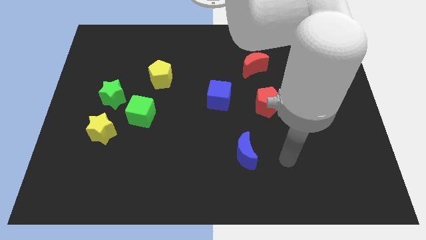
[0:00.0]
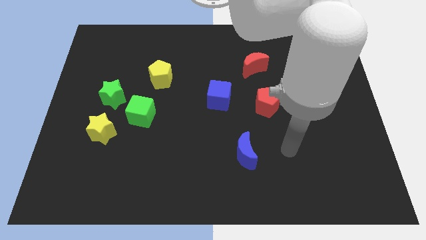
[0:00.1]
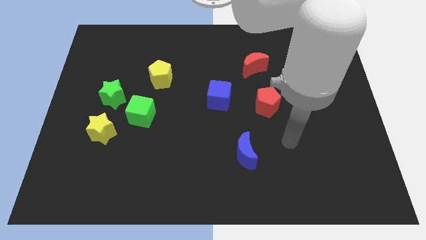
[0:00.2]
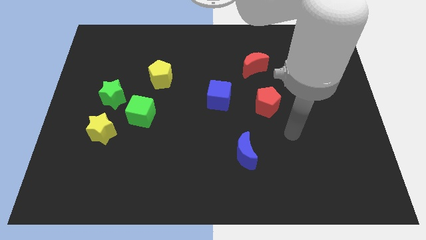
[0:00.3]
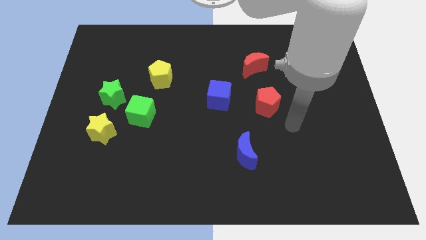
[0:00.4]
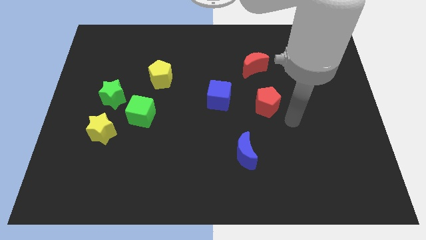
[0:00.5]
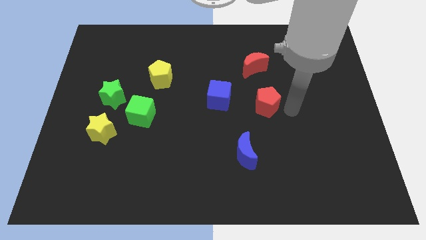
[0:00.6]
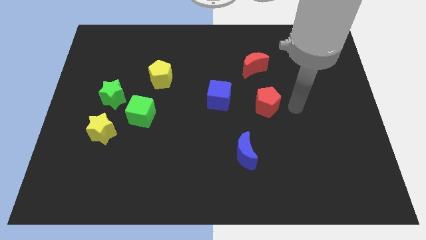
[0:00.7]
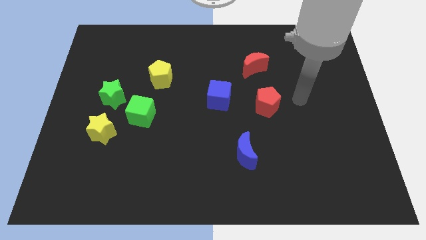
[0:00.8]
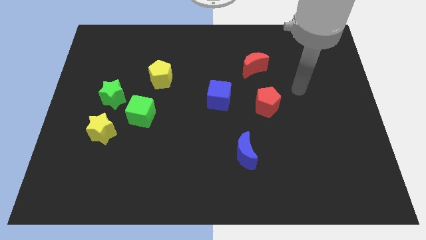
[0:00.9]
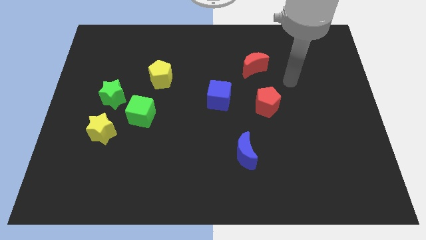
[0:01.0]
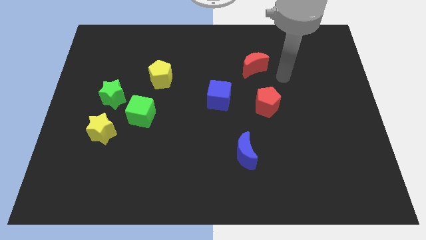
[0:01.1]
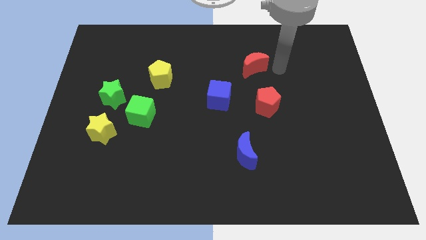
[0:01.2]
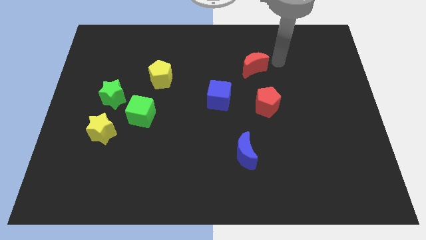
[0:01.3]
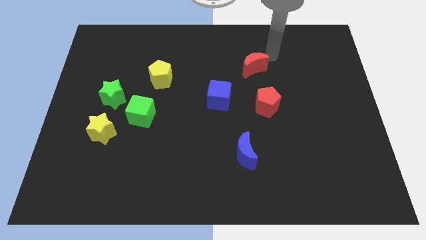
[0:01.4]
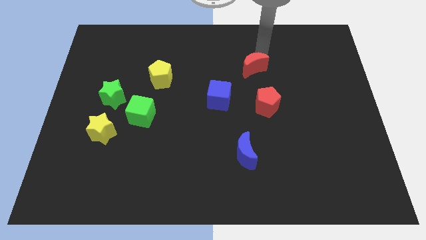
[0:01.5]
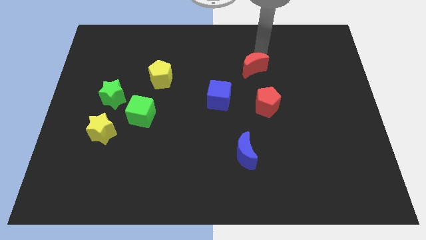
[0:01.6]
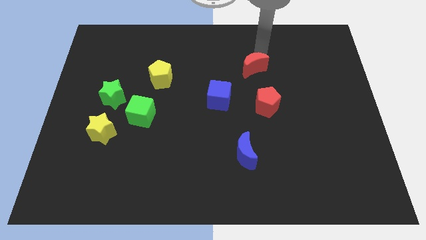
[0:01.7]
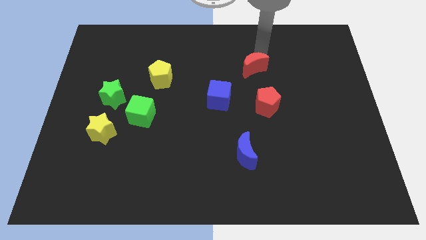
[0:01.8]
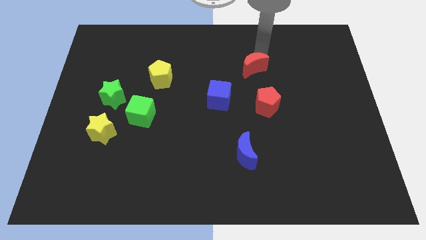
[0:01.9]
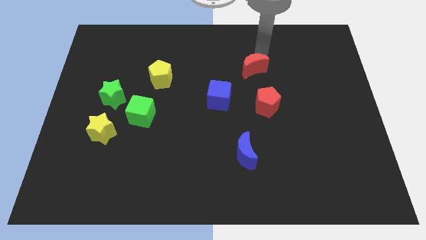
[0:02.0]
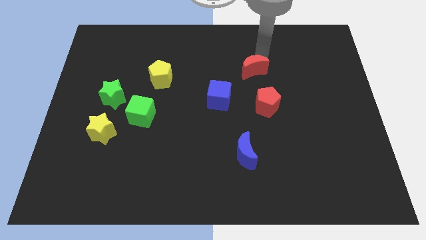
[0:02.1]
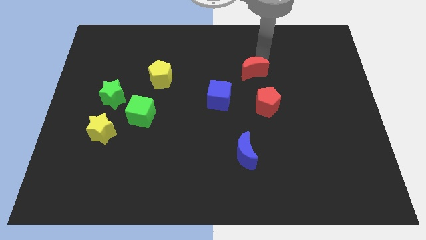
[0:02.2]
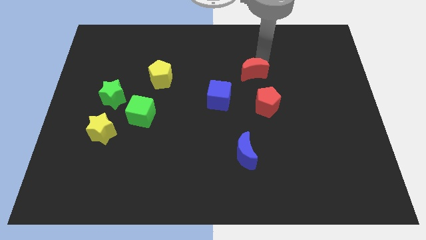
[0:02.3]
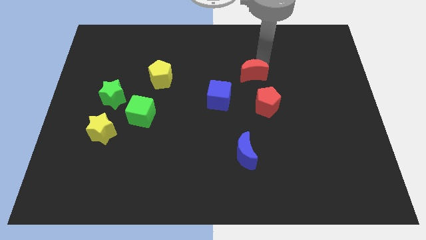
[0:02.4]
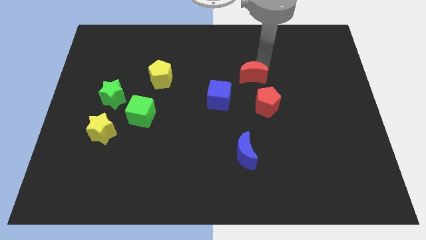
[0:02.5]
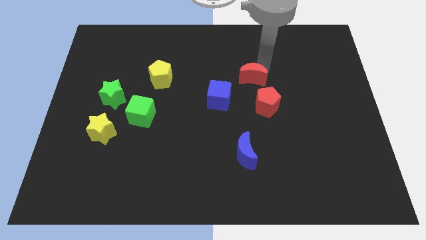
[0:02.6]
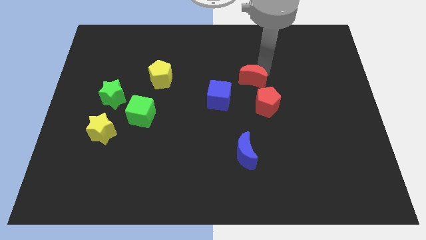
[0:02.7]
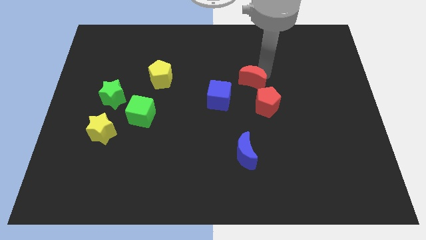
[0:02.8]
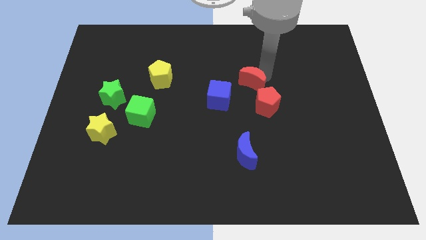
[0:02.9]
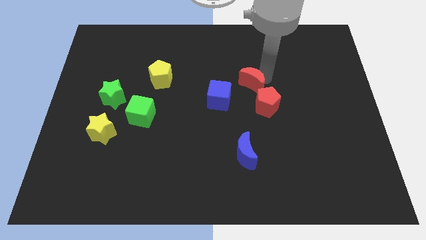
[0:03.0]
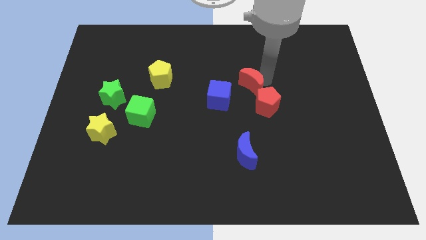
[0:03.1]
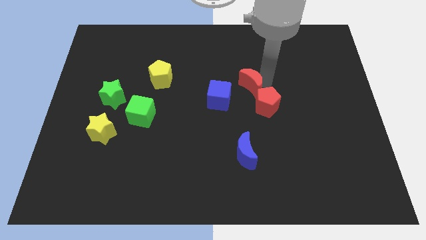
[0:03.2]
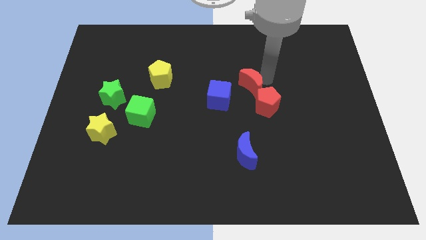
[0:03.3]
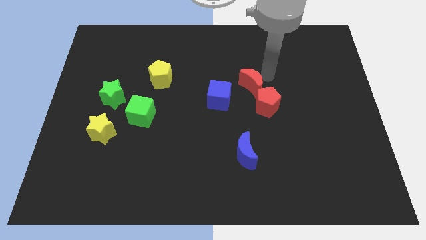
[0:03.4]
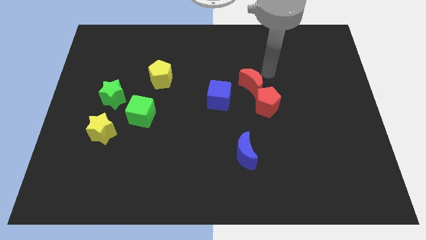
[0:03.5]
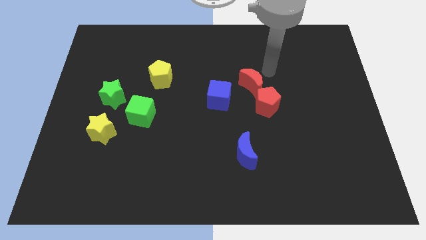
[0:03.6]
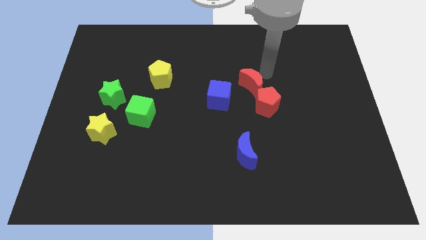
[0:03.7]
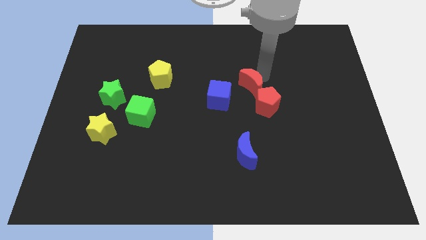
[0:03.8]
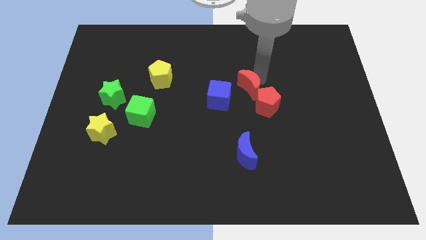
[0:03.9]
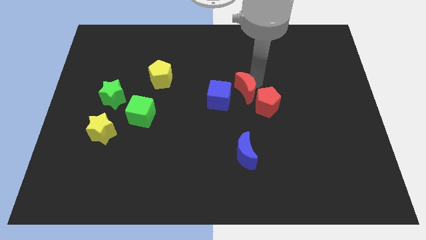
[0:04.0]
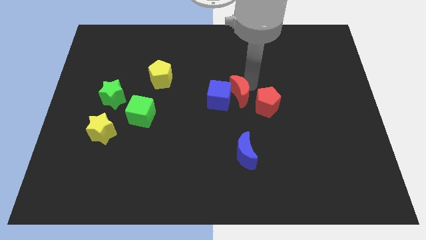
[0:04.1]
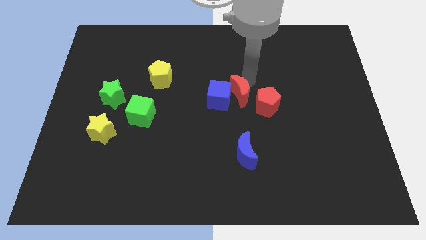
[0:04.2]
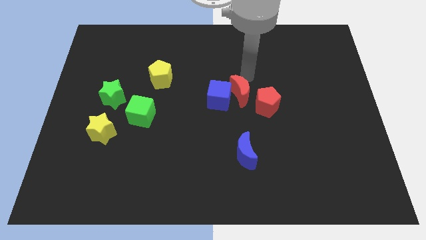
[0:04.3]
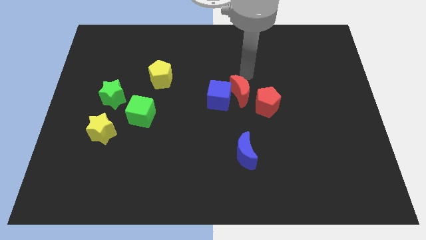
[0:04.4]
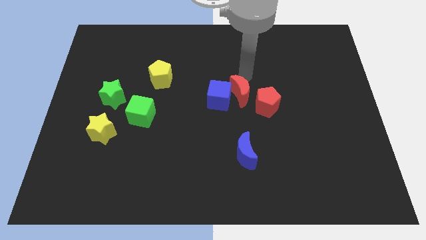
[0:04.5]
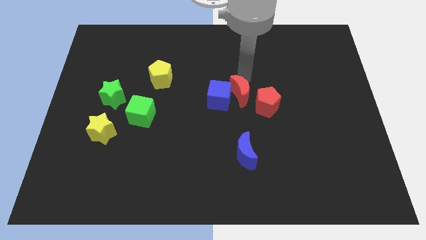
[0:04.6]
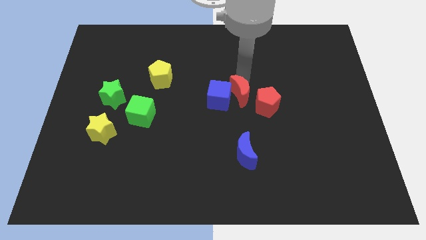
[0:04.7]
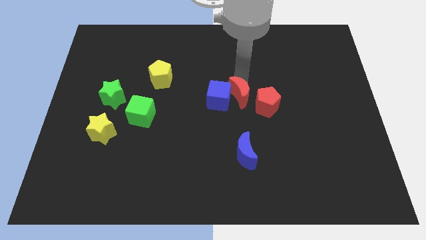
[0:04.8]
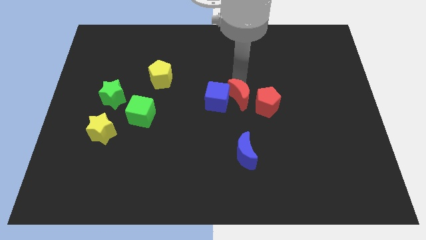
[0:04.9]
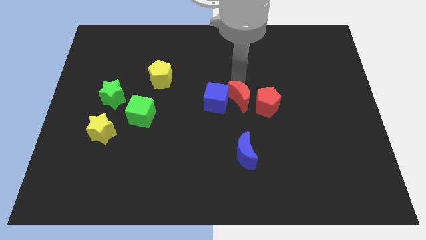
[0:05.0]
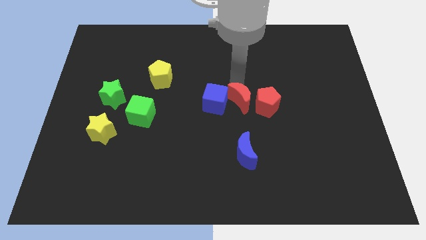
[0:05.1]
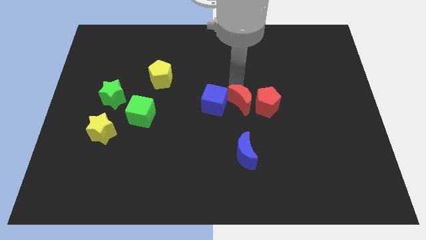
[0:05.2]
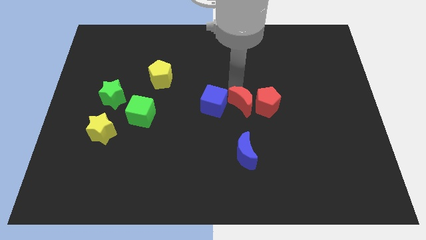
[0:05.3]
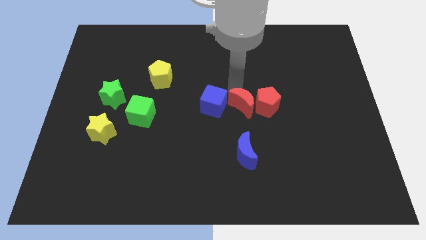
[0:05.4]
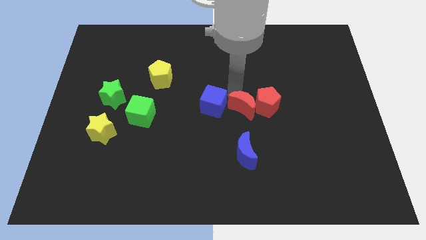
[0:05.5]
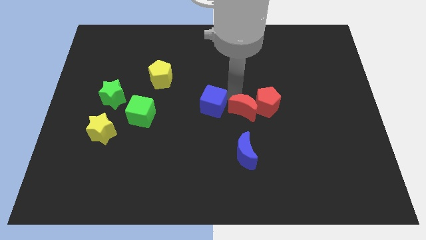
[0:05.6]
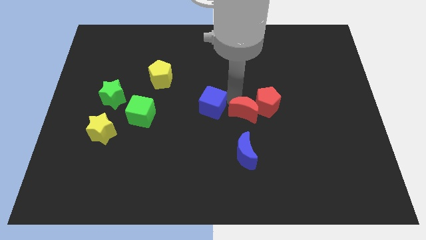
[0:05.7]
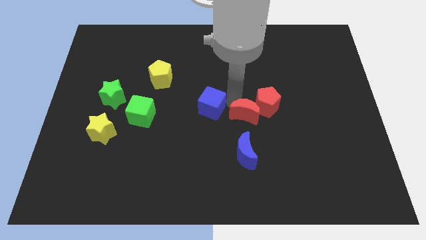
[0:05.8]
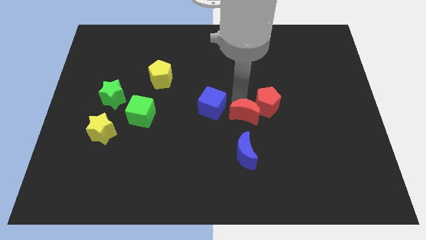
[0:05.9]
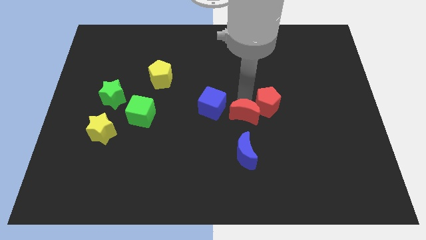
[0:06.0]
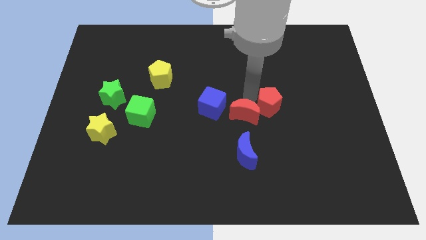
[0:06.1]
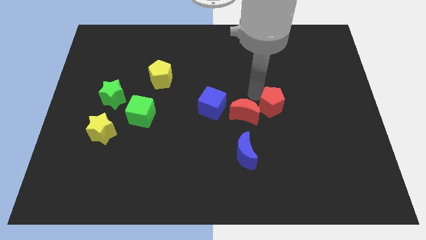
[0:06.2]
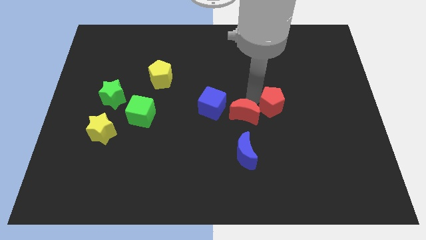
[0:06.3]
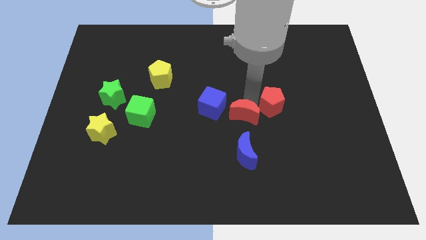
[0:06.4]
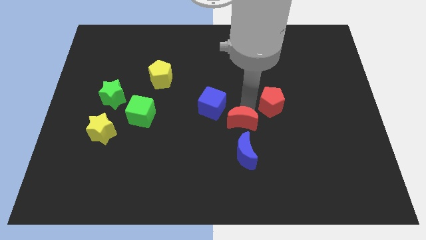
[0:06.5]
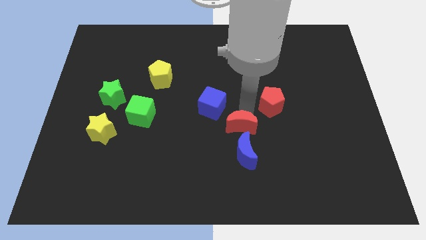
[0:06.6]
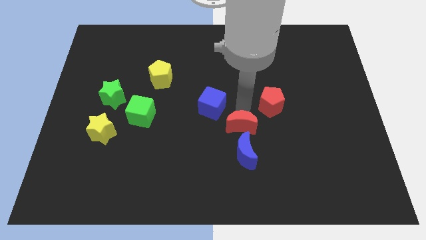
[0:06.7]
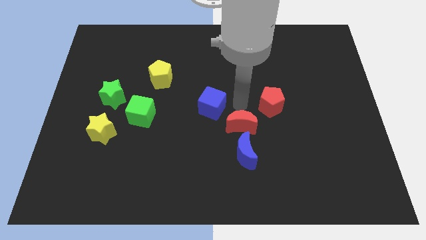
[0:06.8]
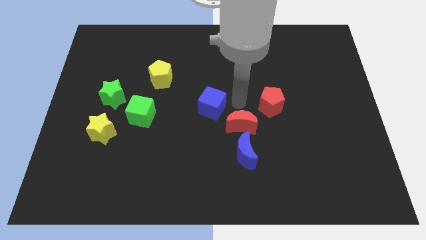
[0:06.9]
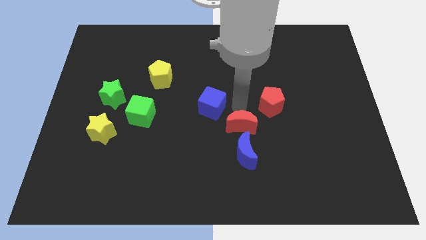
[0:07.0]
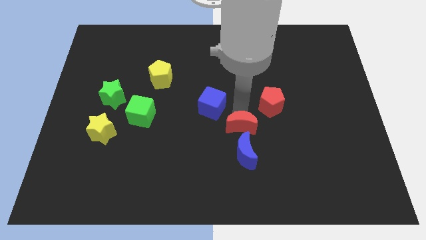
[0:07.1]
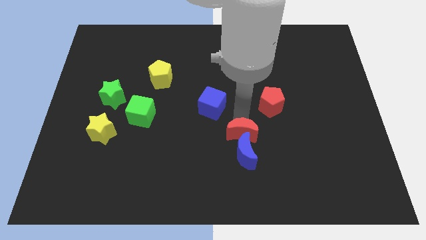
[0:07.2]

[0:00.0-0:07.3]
put the red moon close to the blue moon
